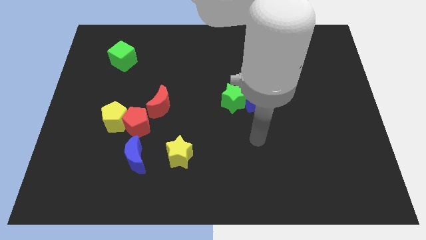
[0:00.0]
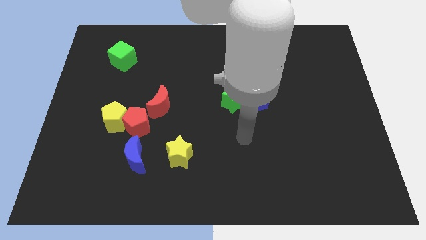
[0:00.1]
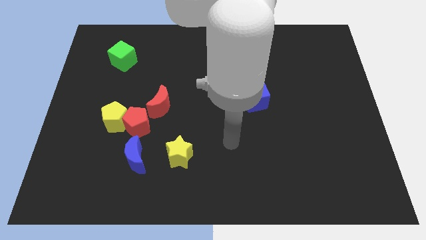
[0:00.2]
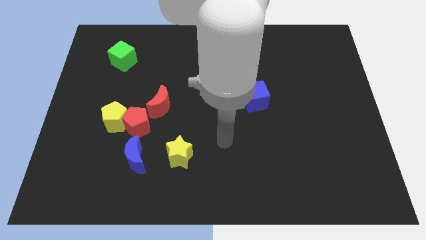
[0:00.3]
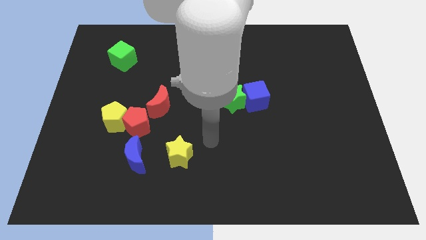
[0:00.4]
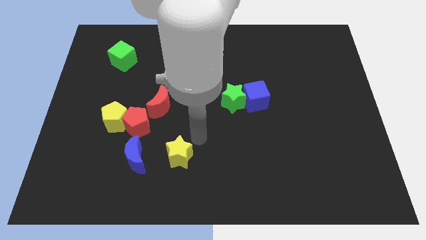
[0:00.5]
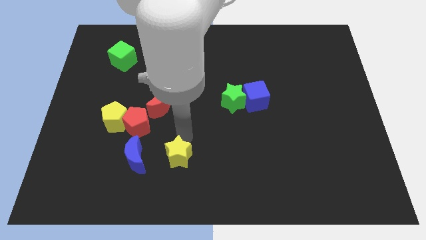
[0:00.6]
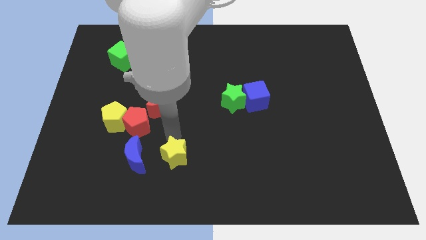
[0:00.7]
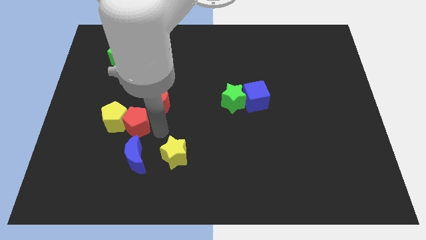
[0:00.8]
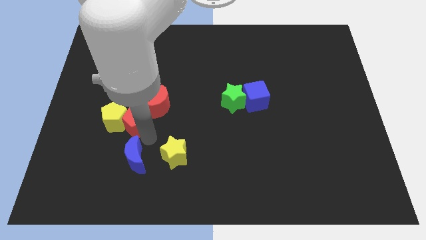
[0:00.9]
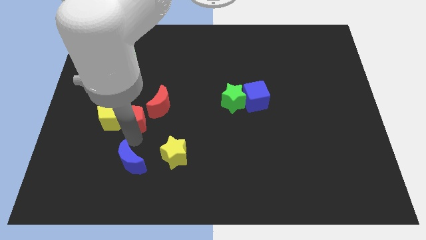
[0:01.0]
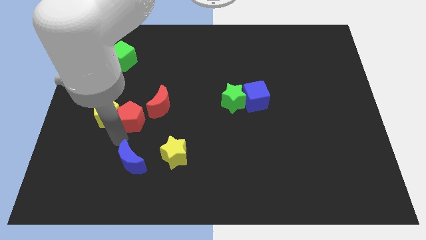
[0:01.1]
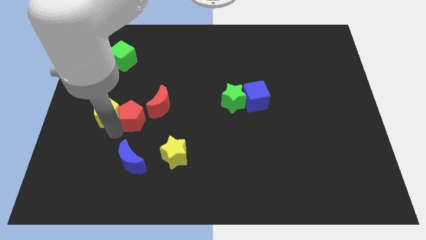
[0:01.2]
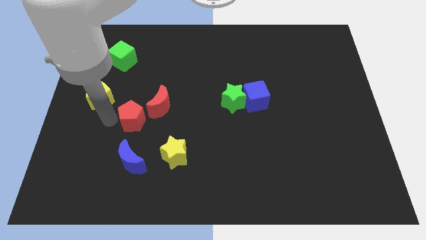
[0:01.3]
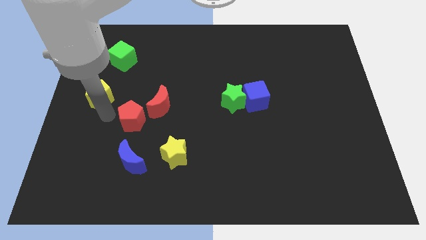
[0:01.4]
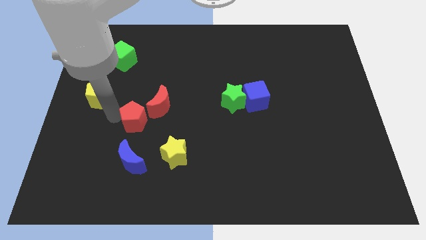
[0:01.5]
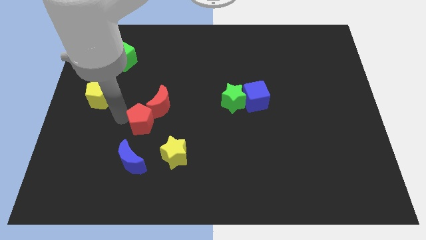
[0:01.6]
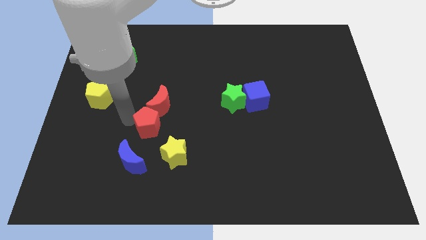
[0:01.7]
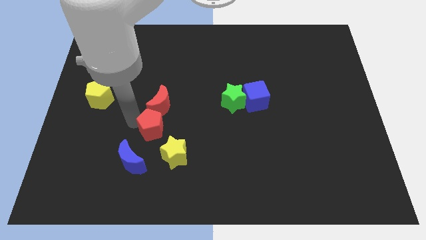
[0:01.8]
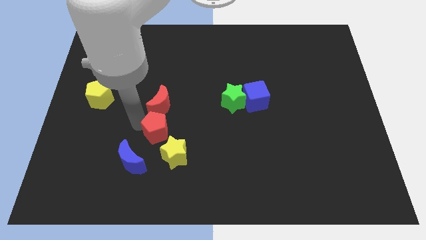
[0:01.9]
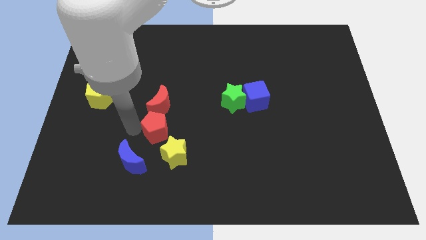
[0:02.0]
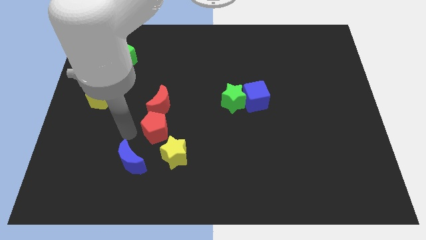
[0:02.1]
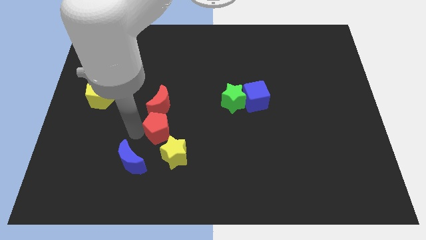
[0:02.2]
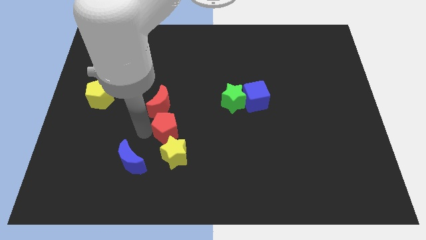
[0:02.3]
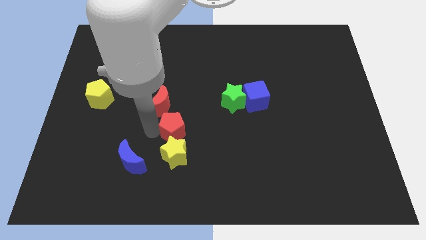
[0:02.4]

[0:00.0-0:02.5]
push the red pentagon a little to the right

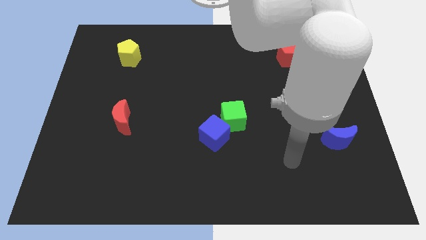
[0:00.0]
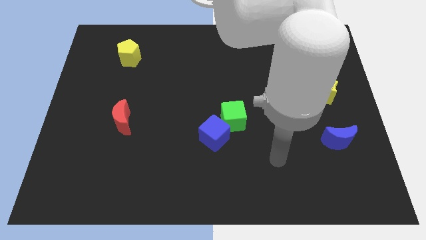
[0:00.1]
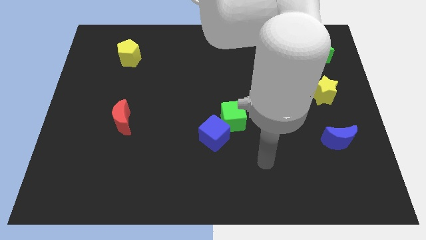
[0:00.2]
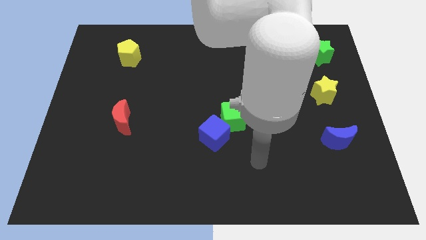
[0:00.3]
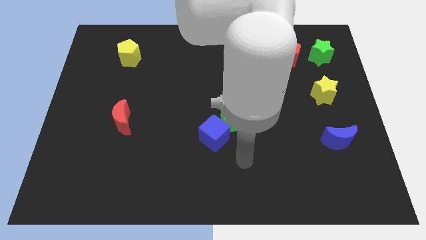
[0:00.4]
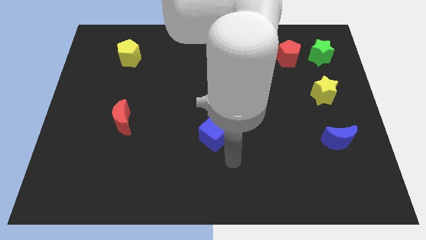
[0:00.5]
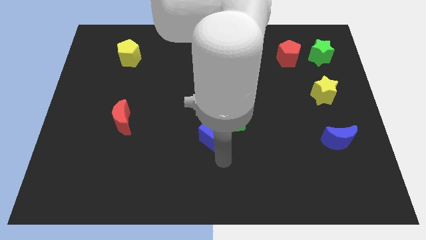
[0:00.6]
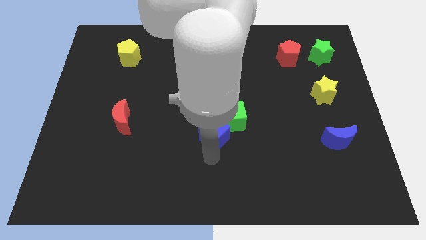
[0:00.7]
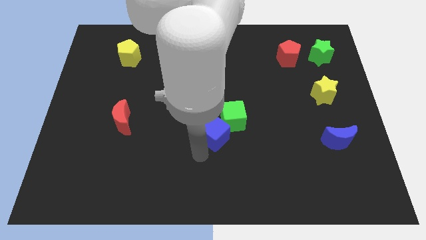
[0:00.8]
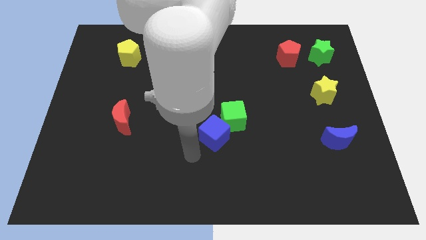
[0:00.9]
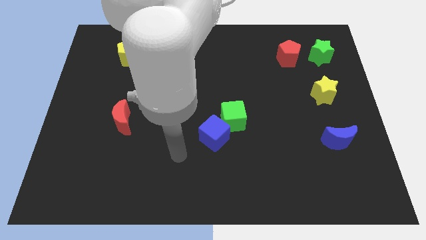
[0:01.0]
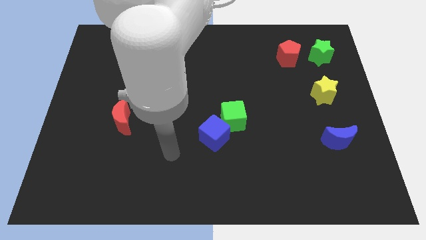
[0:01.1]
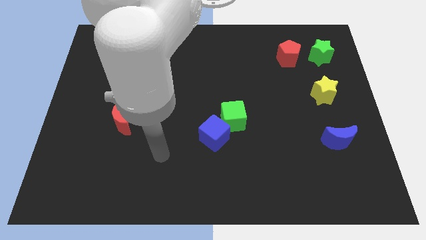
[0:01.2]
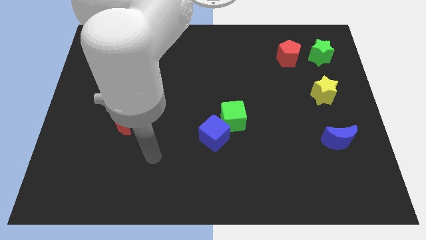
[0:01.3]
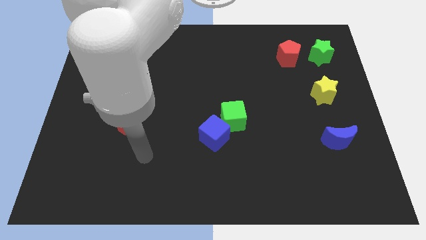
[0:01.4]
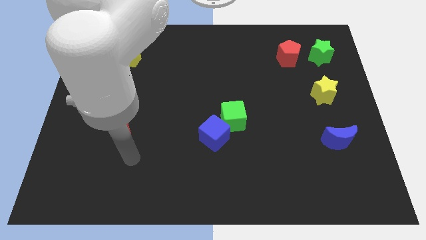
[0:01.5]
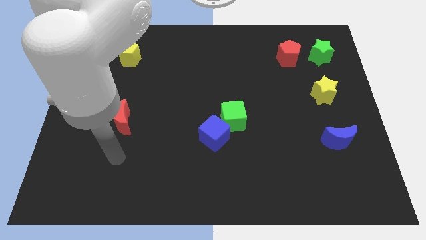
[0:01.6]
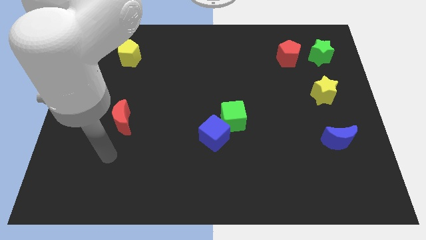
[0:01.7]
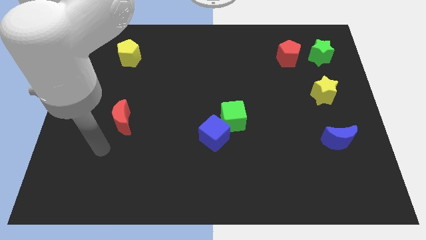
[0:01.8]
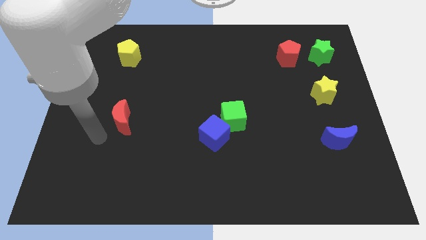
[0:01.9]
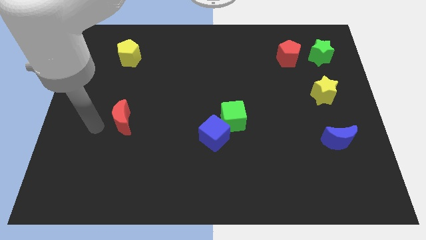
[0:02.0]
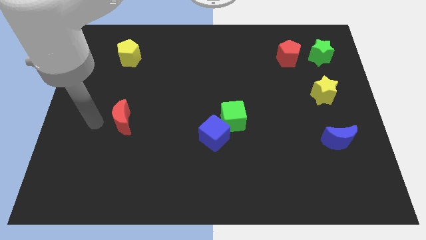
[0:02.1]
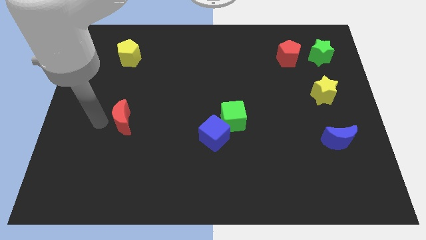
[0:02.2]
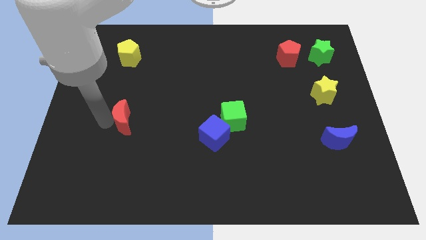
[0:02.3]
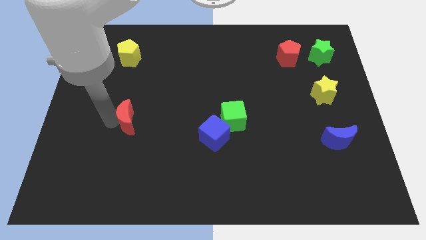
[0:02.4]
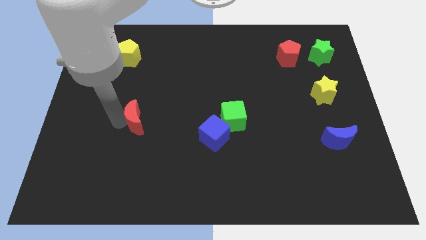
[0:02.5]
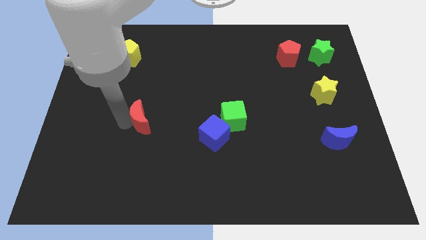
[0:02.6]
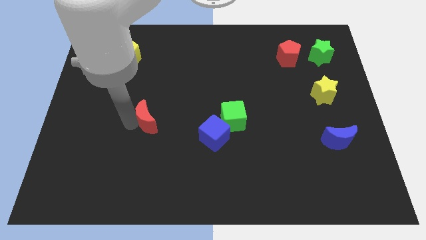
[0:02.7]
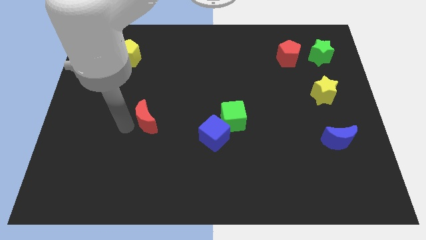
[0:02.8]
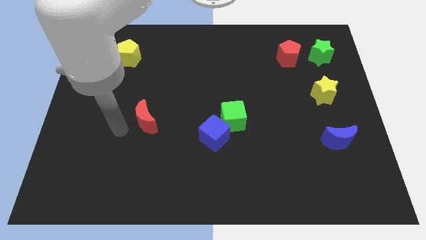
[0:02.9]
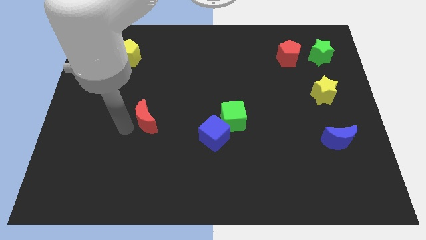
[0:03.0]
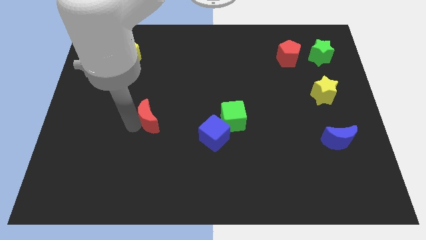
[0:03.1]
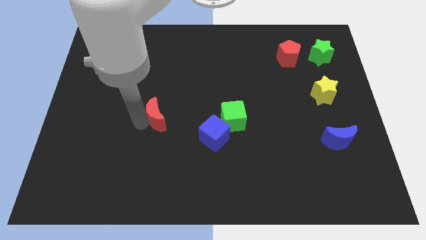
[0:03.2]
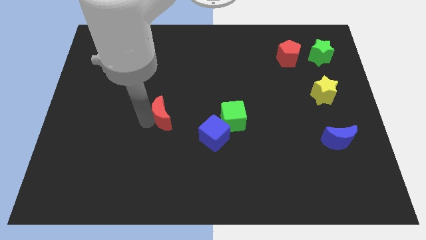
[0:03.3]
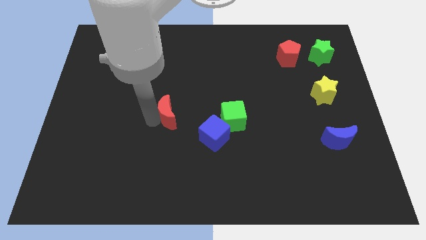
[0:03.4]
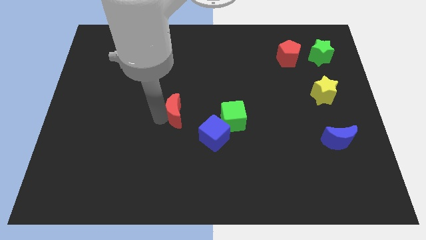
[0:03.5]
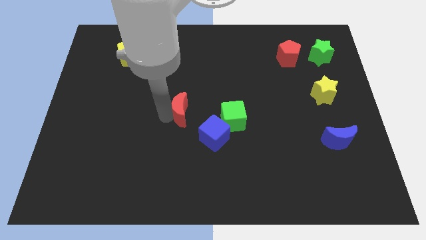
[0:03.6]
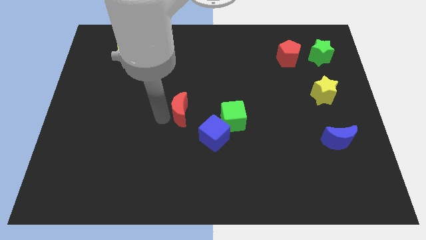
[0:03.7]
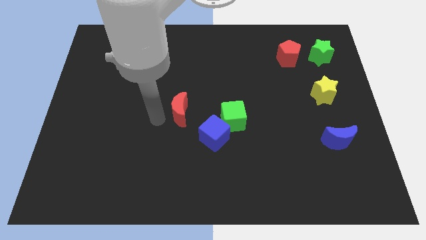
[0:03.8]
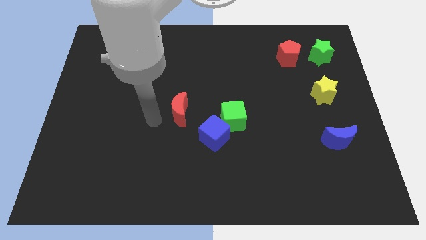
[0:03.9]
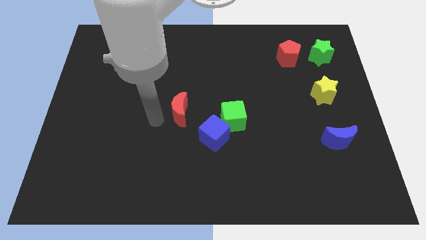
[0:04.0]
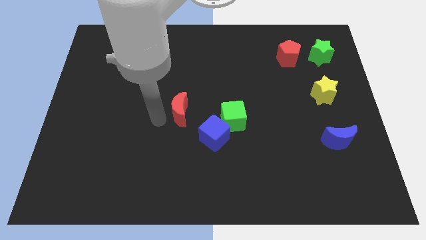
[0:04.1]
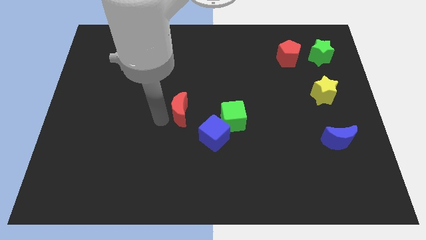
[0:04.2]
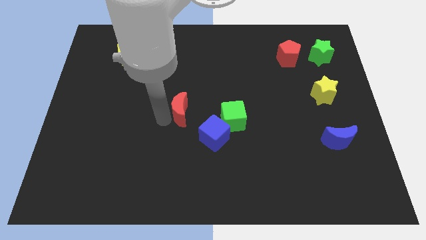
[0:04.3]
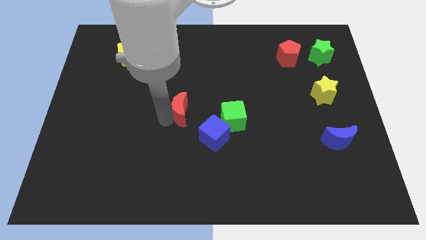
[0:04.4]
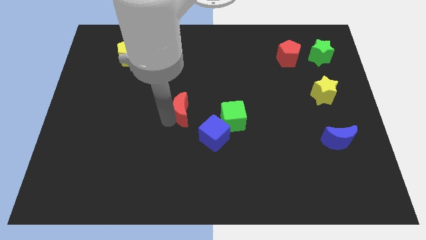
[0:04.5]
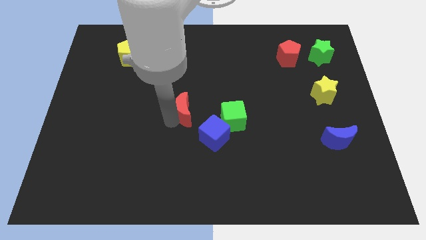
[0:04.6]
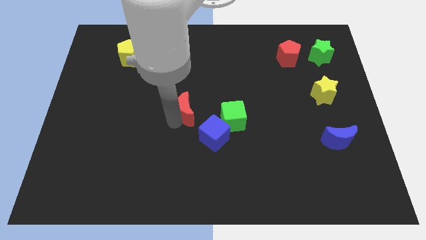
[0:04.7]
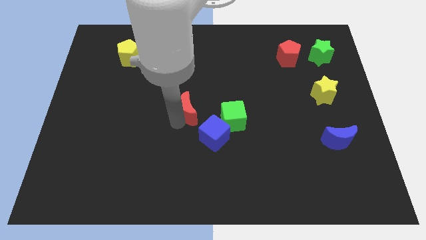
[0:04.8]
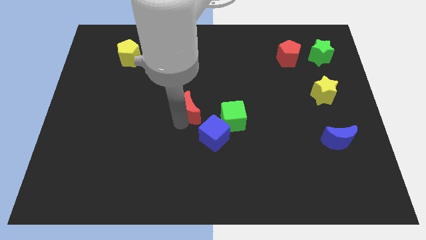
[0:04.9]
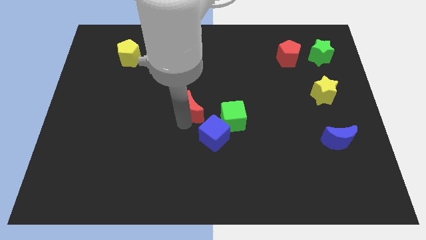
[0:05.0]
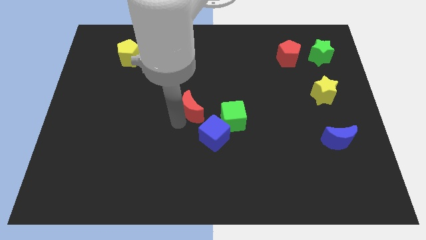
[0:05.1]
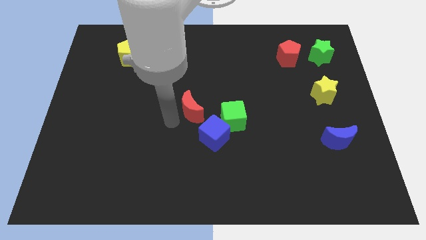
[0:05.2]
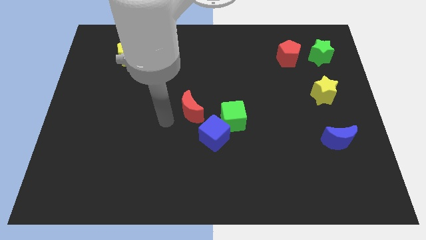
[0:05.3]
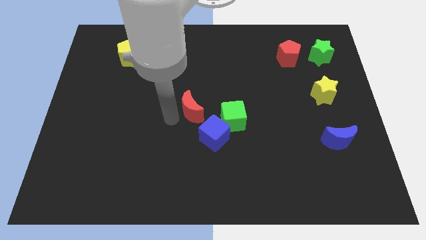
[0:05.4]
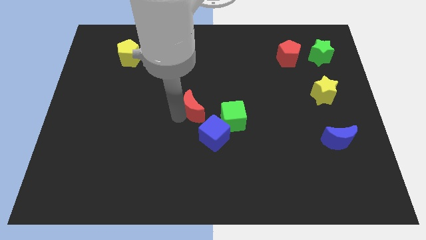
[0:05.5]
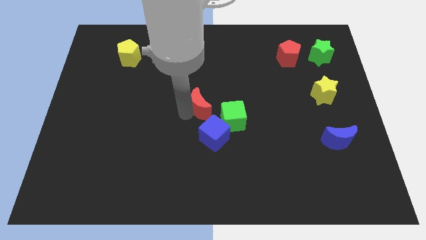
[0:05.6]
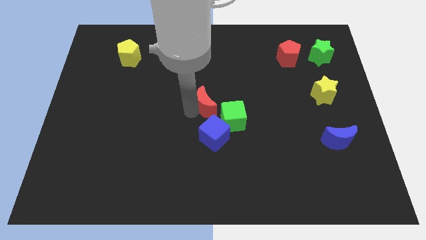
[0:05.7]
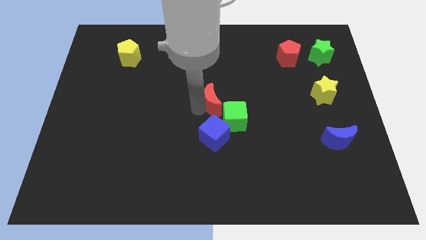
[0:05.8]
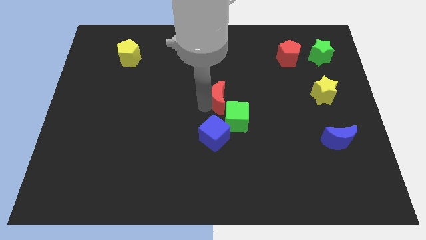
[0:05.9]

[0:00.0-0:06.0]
slide the red moon to the right
